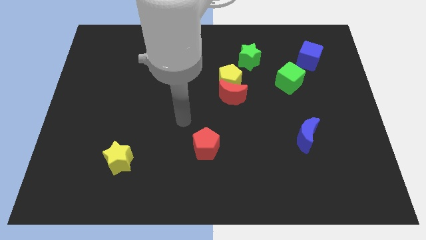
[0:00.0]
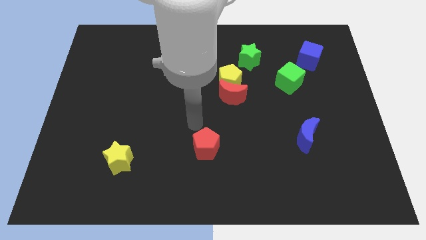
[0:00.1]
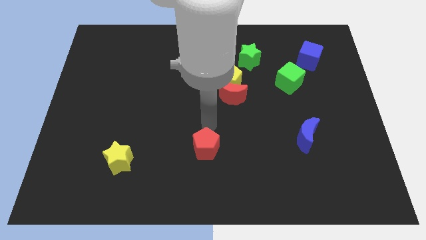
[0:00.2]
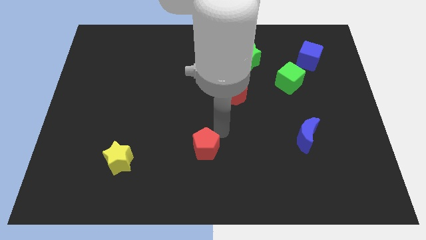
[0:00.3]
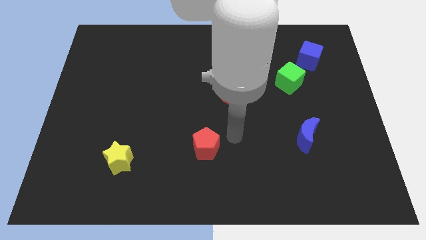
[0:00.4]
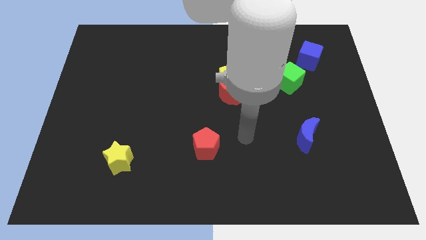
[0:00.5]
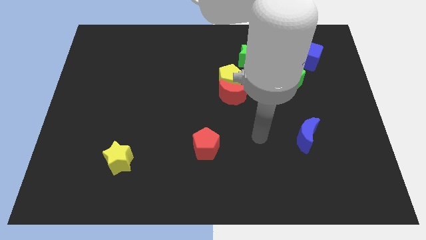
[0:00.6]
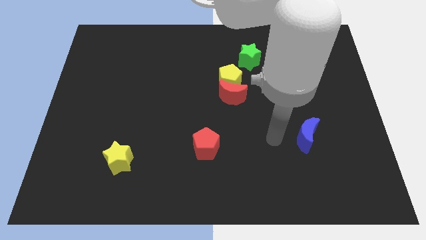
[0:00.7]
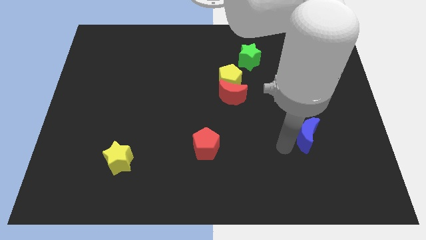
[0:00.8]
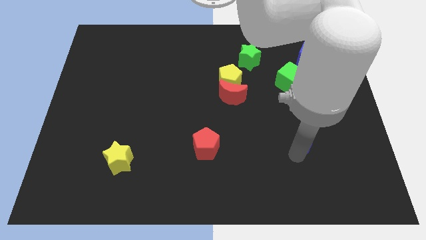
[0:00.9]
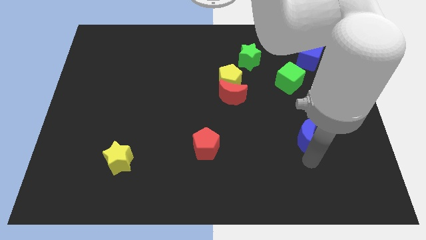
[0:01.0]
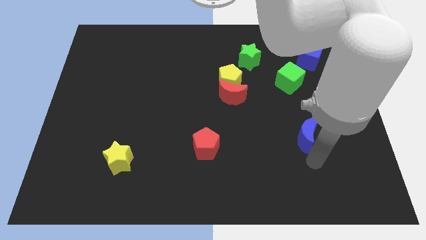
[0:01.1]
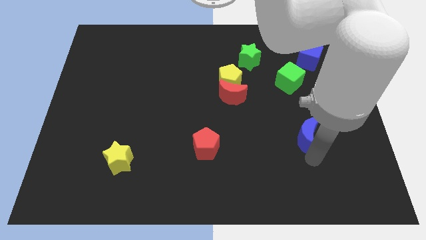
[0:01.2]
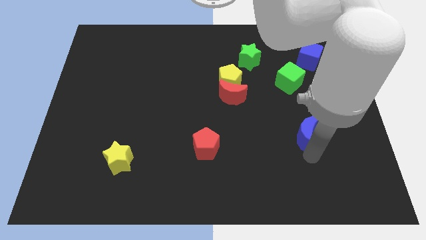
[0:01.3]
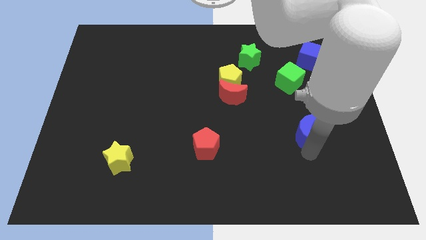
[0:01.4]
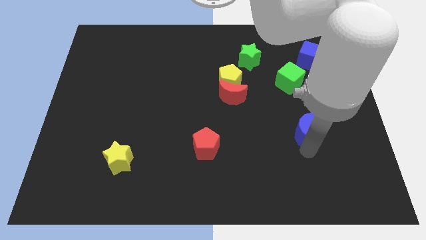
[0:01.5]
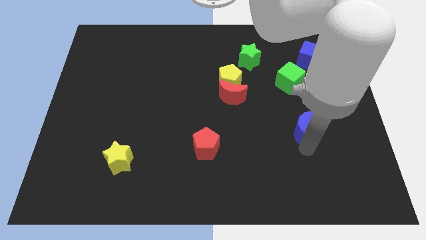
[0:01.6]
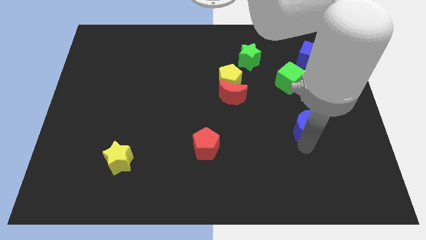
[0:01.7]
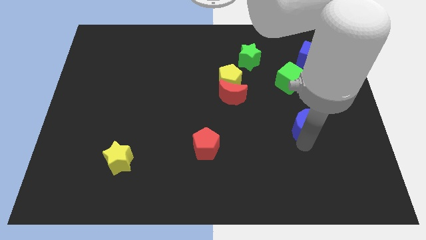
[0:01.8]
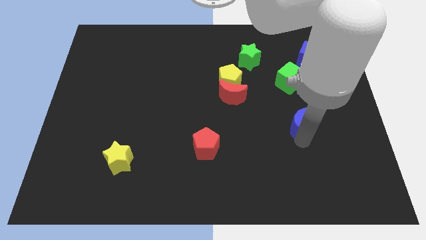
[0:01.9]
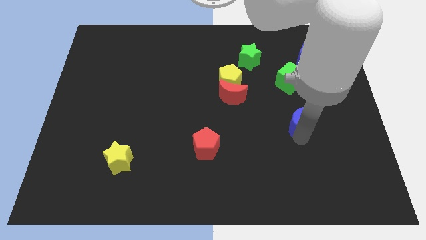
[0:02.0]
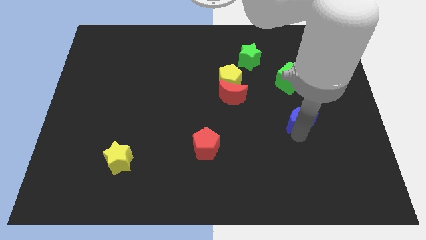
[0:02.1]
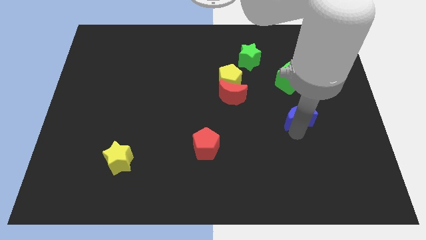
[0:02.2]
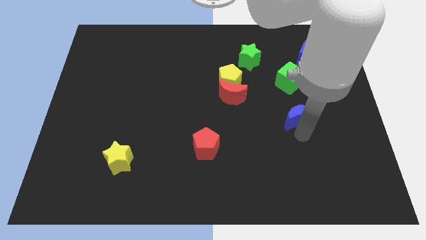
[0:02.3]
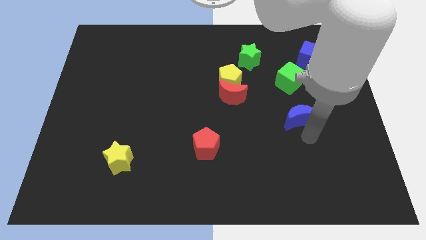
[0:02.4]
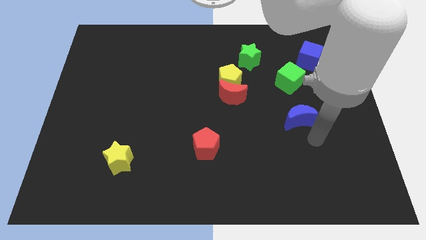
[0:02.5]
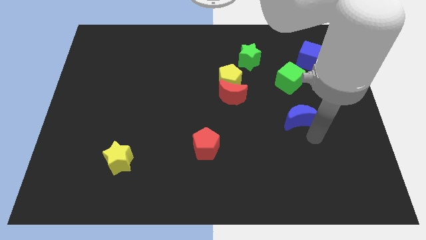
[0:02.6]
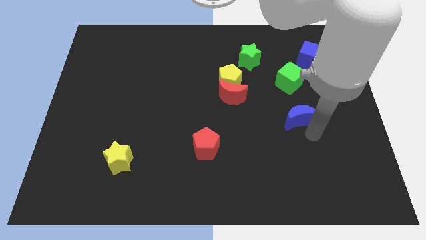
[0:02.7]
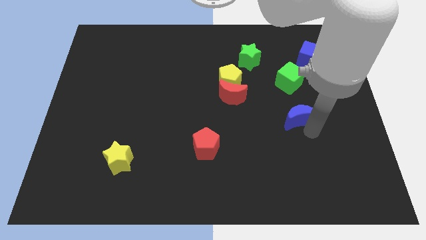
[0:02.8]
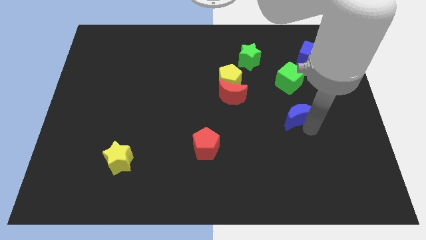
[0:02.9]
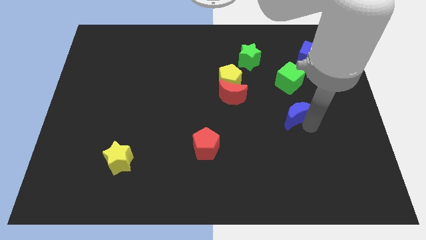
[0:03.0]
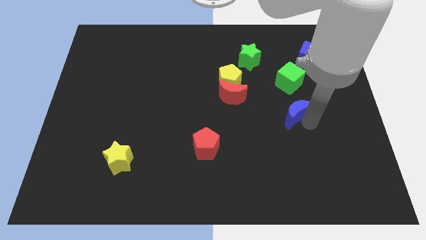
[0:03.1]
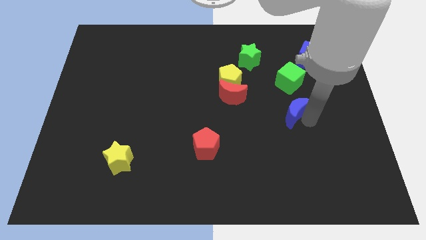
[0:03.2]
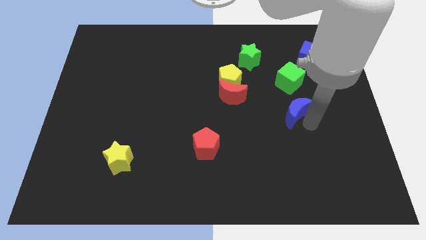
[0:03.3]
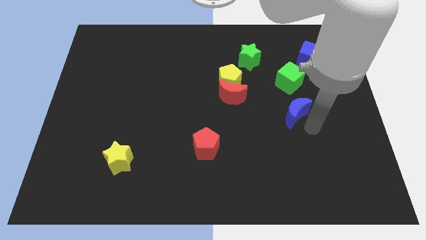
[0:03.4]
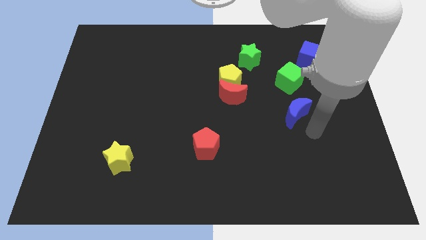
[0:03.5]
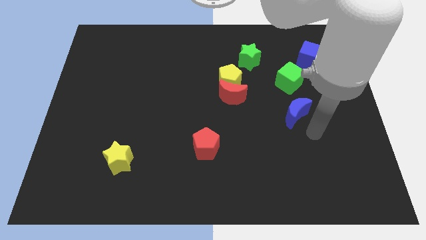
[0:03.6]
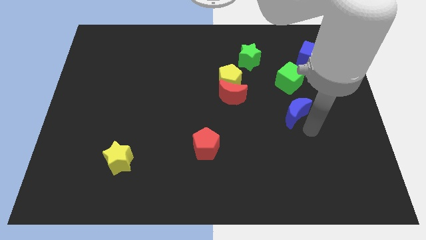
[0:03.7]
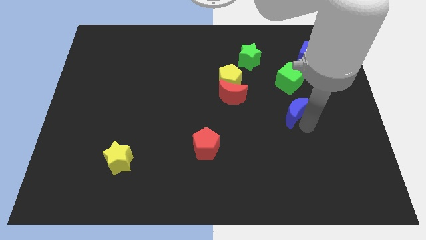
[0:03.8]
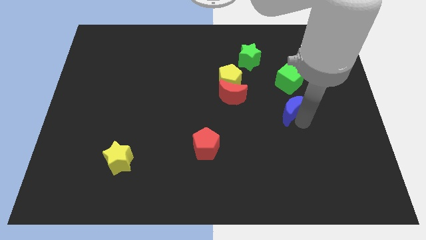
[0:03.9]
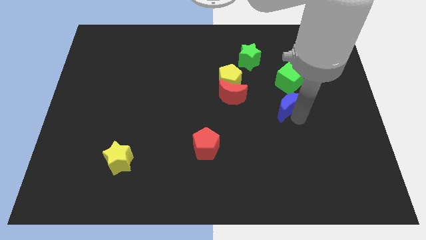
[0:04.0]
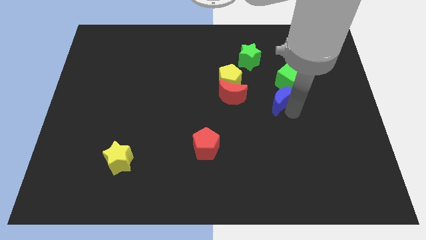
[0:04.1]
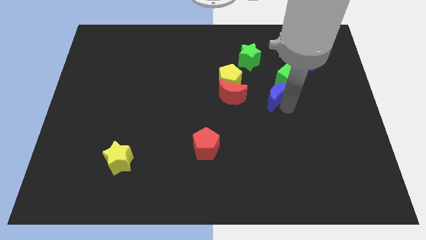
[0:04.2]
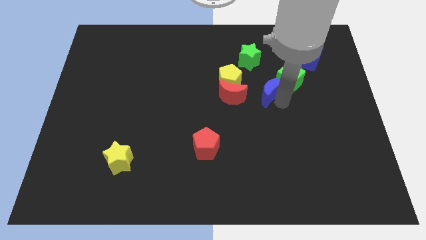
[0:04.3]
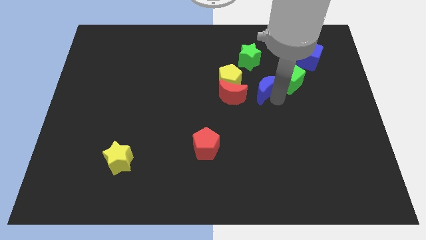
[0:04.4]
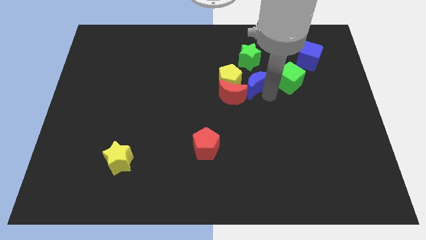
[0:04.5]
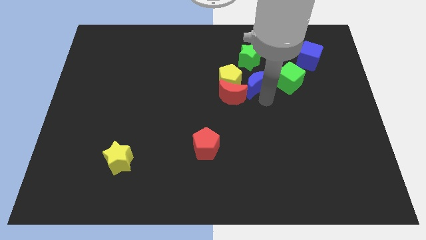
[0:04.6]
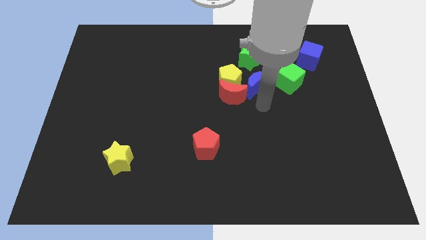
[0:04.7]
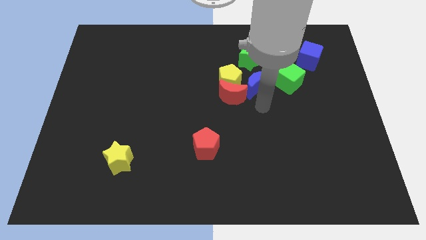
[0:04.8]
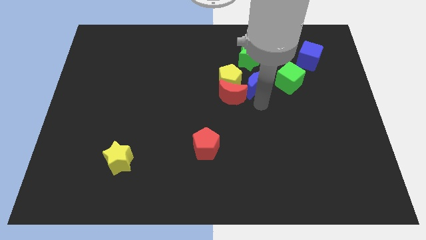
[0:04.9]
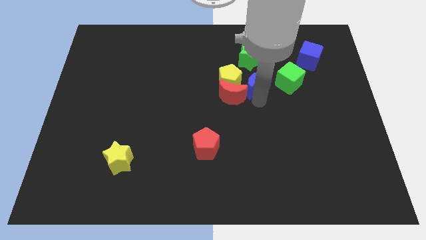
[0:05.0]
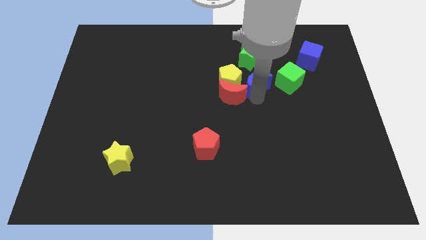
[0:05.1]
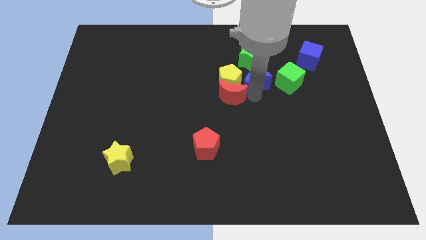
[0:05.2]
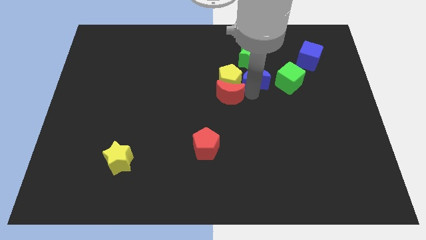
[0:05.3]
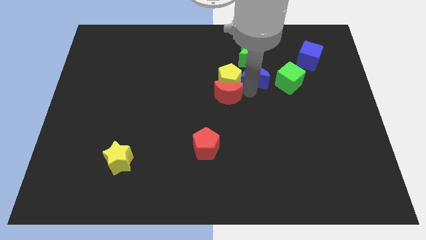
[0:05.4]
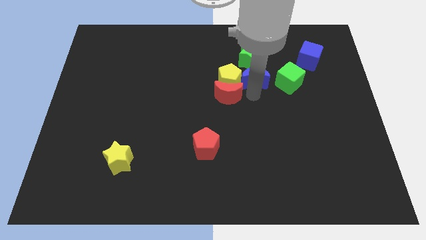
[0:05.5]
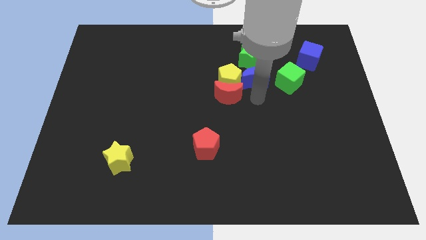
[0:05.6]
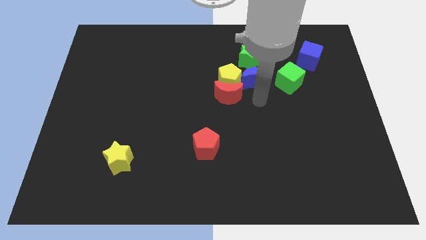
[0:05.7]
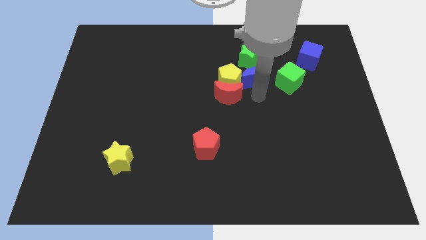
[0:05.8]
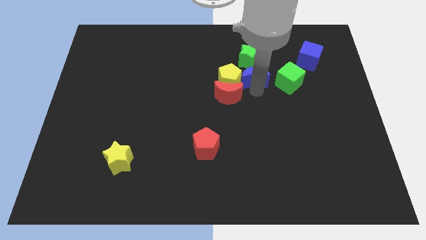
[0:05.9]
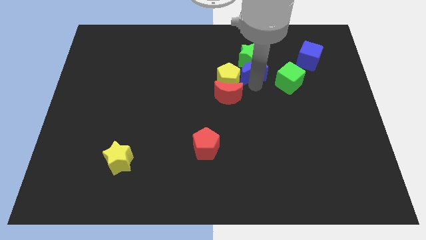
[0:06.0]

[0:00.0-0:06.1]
move the blue moon towards the green star

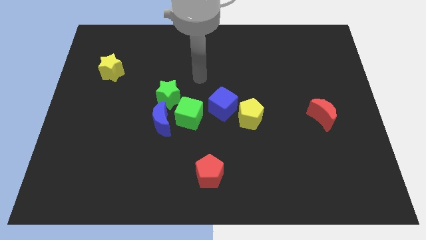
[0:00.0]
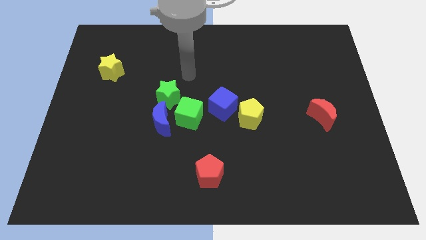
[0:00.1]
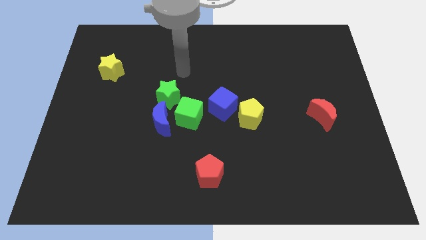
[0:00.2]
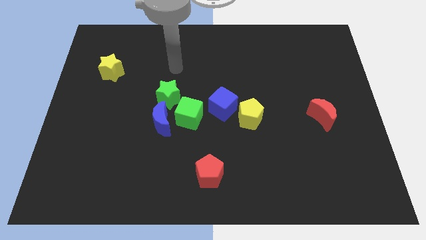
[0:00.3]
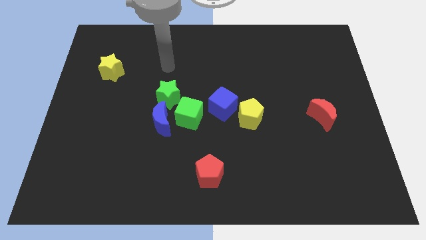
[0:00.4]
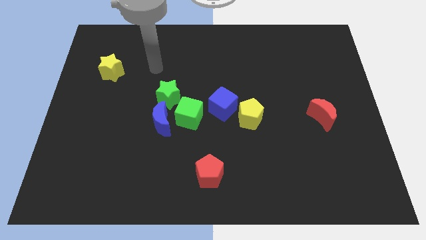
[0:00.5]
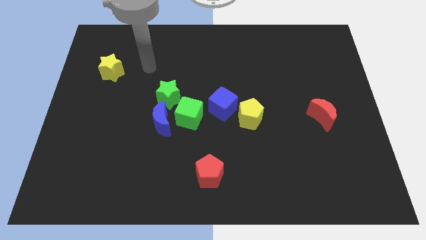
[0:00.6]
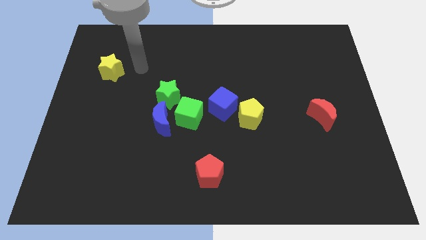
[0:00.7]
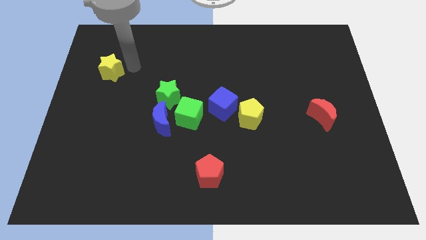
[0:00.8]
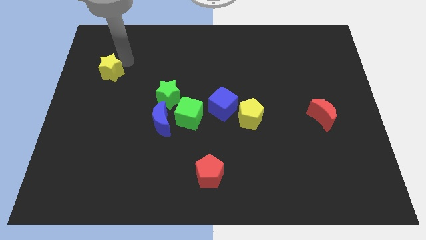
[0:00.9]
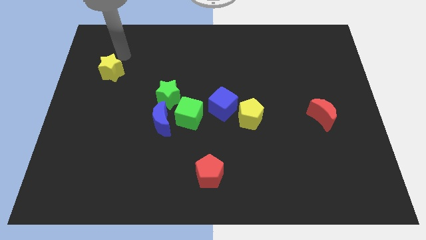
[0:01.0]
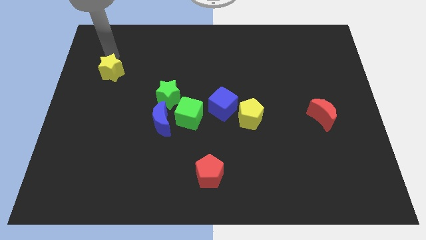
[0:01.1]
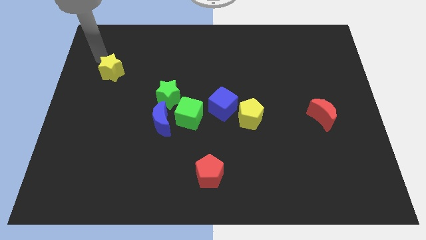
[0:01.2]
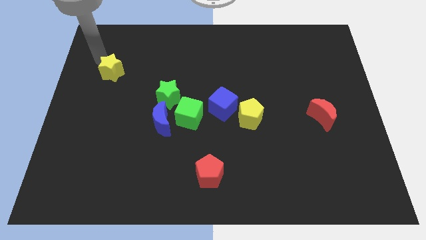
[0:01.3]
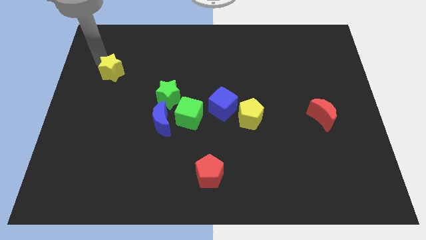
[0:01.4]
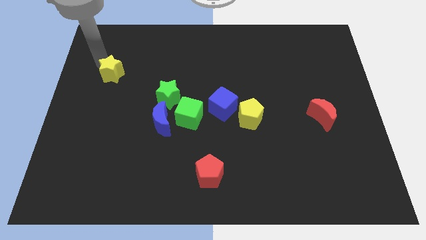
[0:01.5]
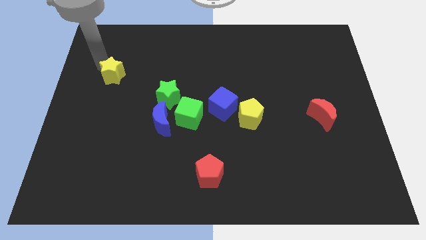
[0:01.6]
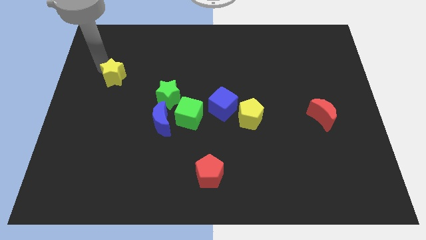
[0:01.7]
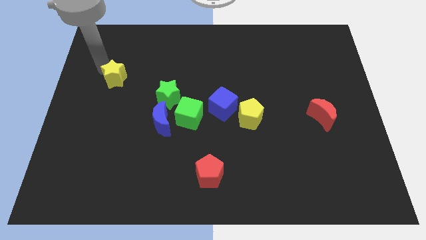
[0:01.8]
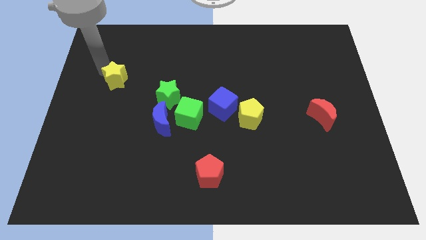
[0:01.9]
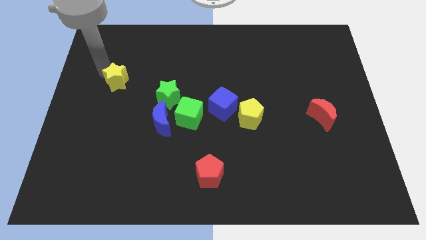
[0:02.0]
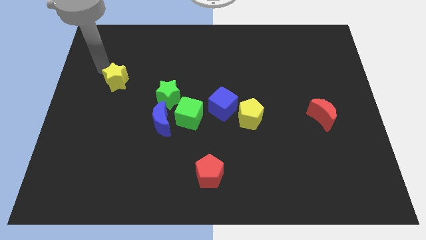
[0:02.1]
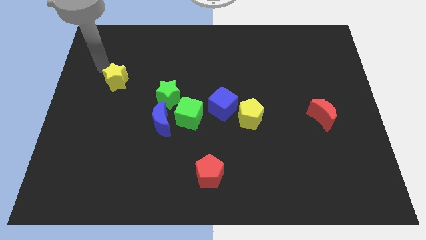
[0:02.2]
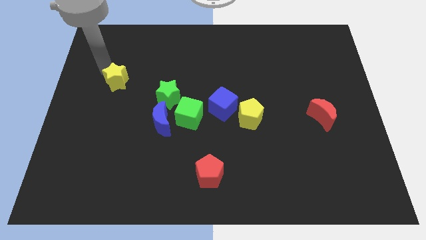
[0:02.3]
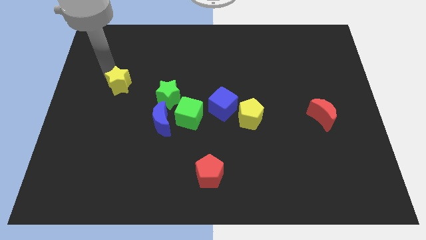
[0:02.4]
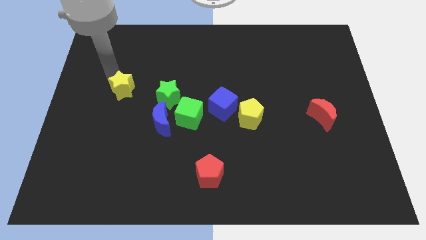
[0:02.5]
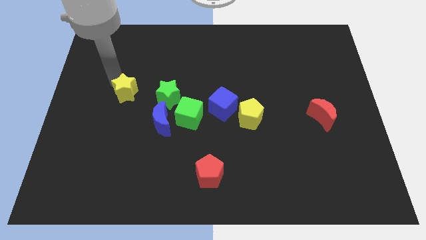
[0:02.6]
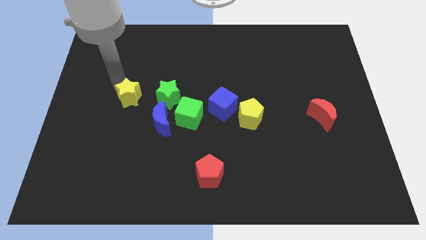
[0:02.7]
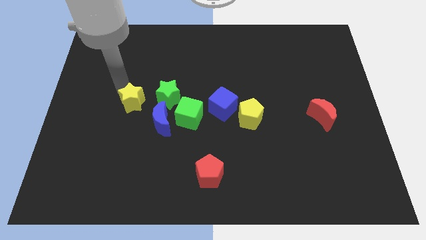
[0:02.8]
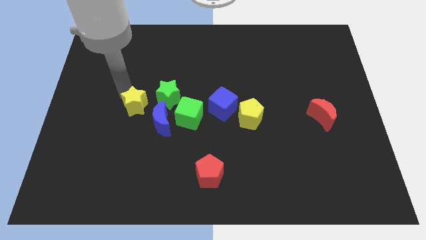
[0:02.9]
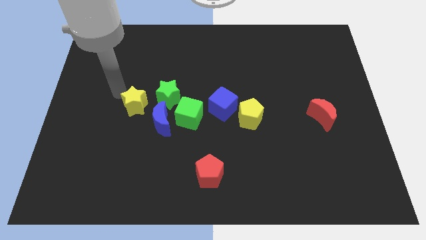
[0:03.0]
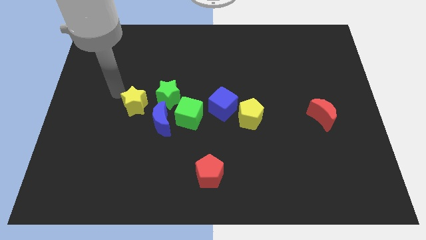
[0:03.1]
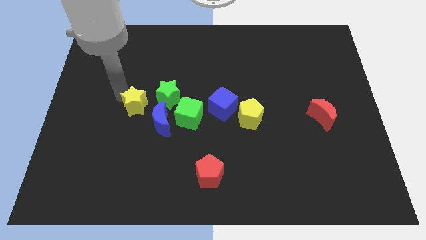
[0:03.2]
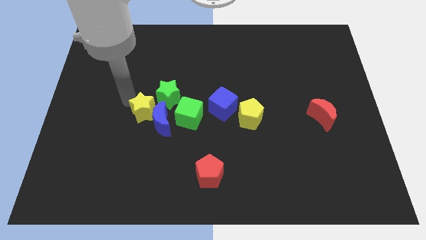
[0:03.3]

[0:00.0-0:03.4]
put the yellow star to the blue moon
